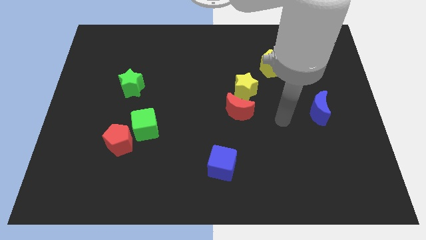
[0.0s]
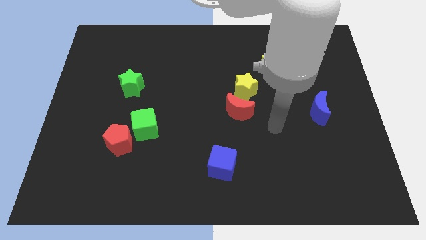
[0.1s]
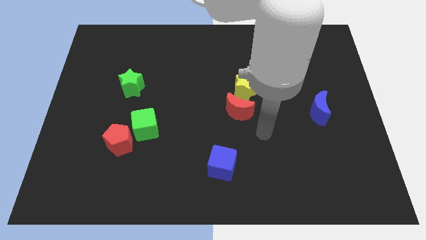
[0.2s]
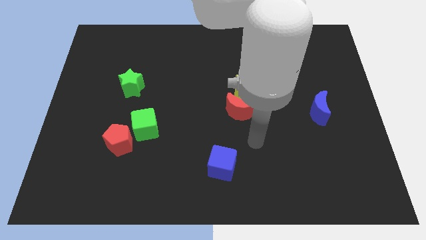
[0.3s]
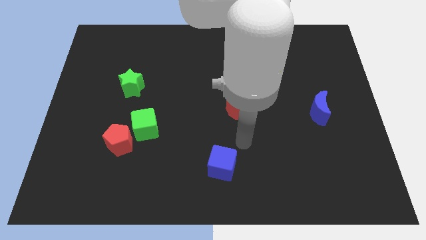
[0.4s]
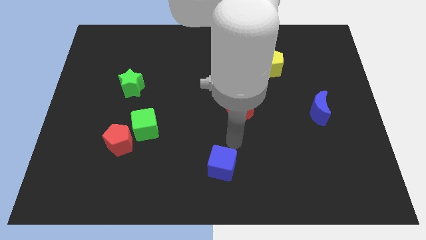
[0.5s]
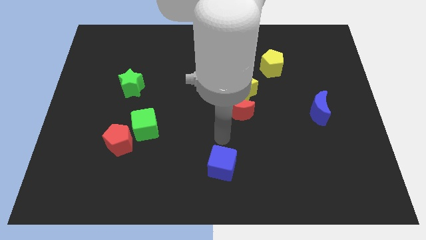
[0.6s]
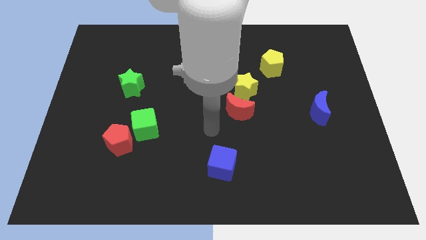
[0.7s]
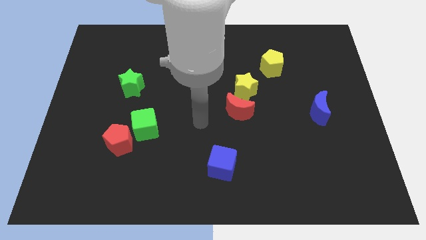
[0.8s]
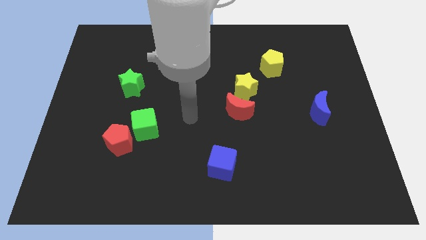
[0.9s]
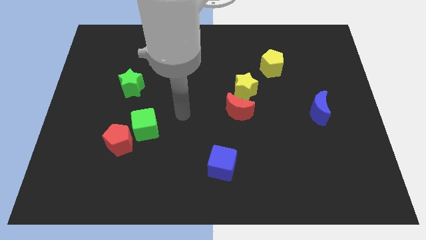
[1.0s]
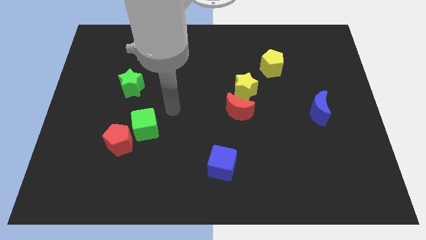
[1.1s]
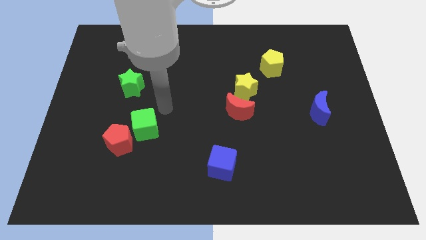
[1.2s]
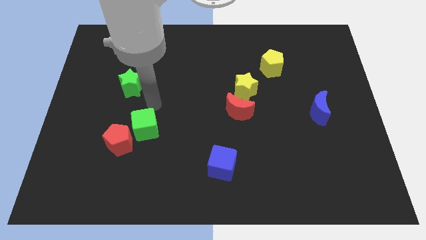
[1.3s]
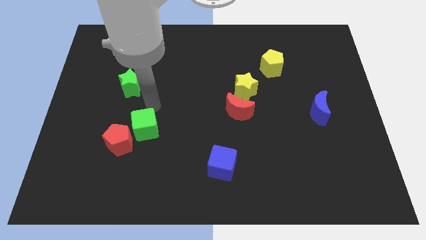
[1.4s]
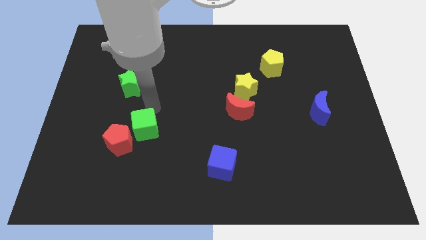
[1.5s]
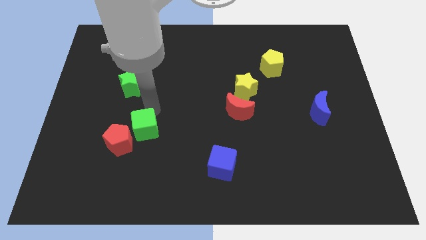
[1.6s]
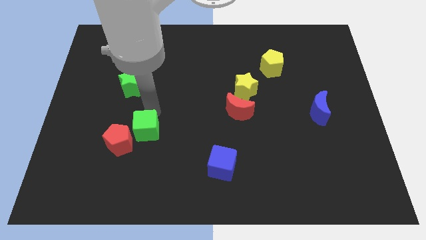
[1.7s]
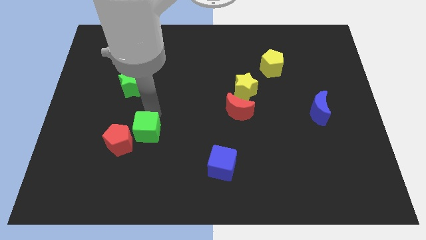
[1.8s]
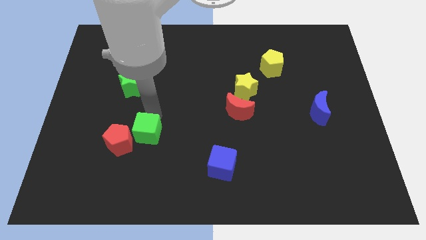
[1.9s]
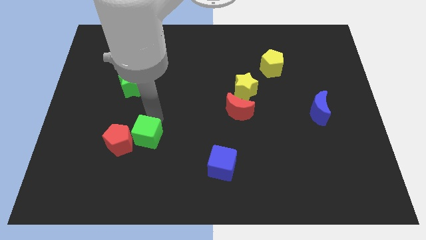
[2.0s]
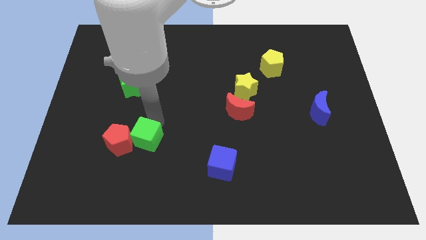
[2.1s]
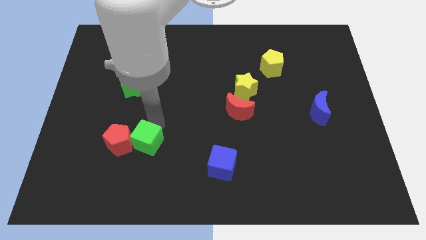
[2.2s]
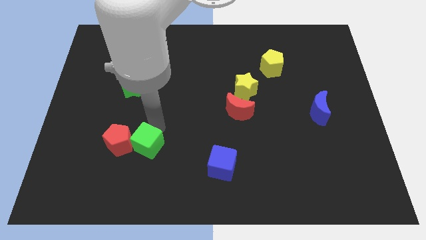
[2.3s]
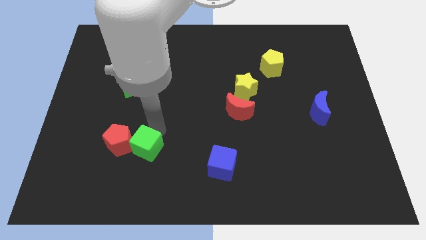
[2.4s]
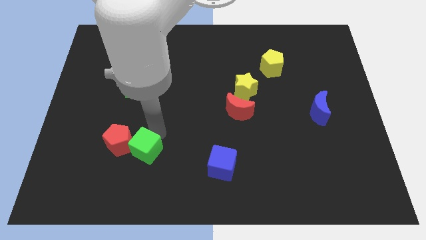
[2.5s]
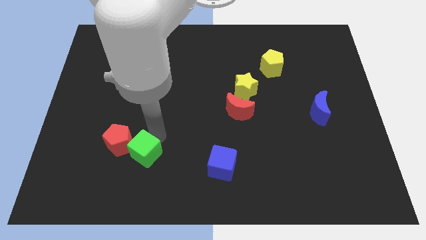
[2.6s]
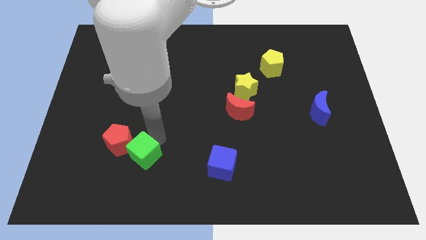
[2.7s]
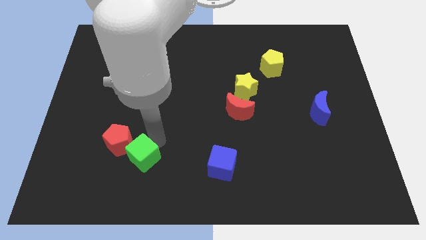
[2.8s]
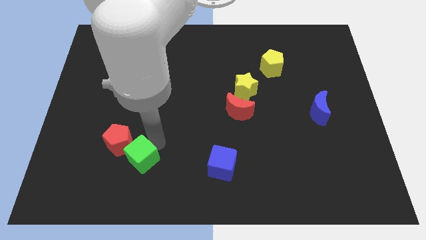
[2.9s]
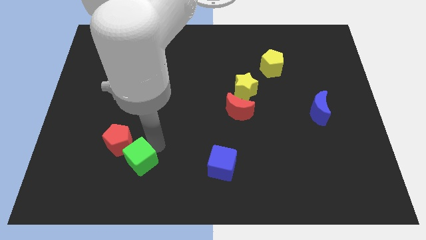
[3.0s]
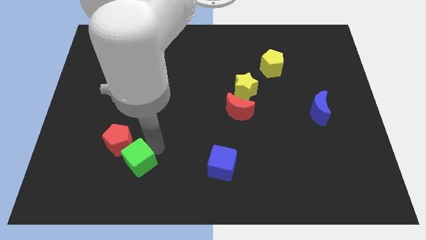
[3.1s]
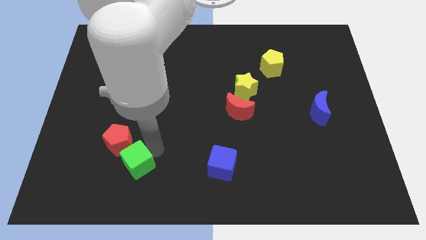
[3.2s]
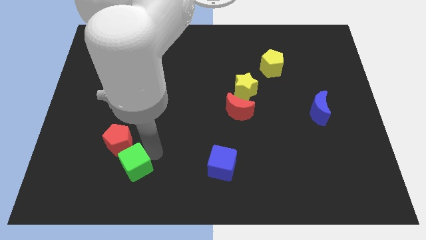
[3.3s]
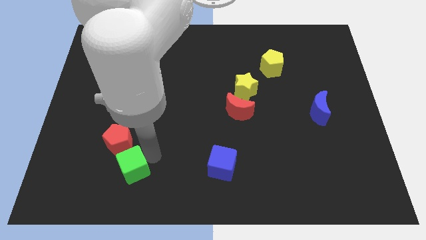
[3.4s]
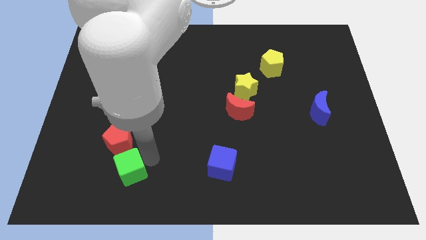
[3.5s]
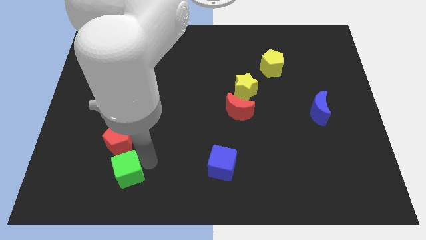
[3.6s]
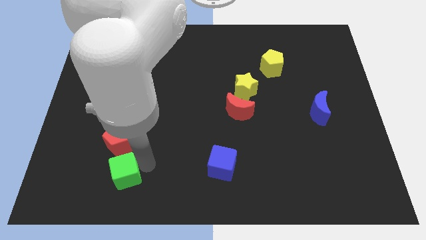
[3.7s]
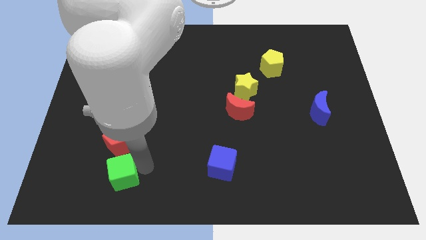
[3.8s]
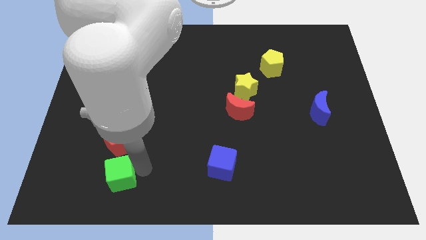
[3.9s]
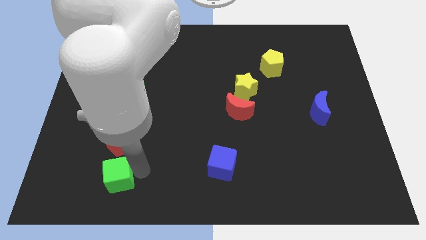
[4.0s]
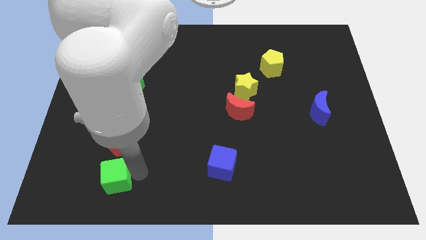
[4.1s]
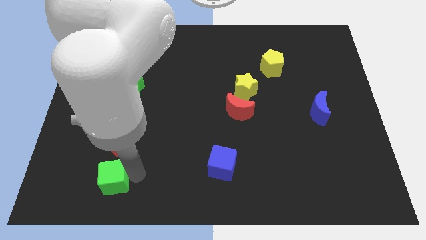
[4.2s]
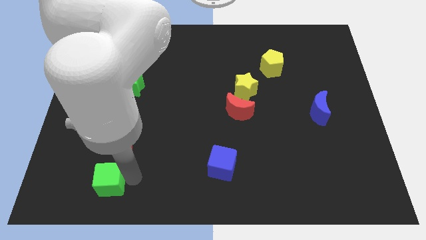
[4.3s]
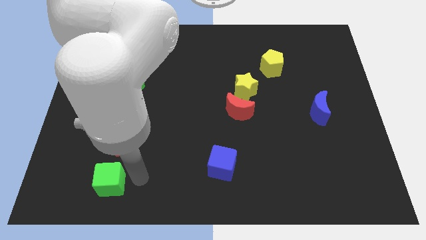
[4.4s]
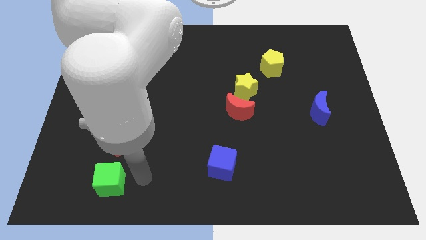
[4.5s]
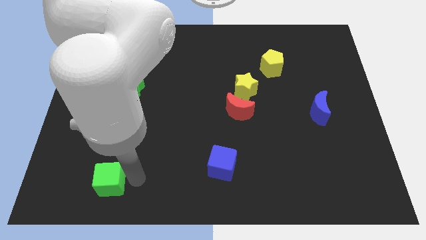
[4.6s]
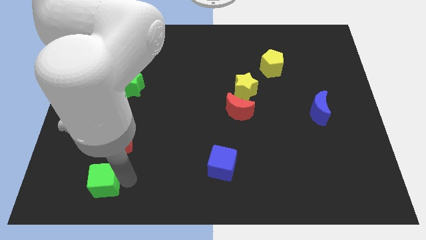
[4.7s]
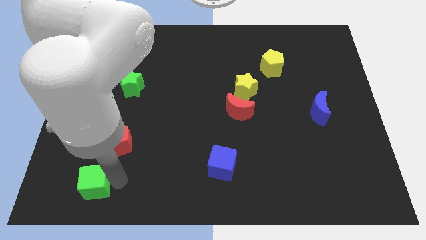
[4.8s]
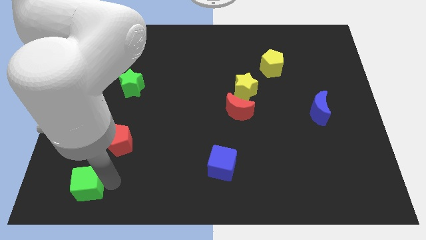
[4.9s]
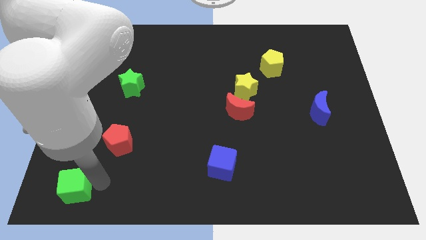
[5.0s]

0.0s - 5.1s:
move the green cube to the lower left corner

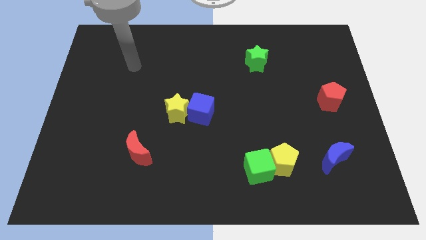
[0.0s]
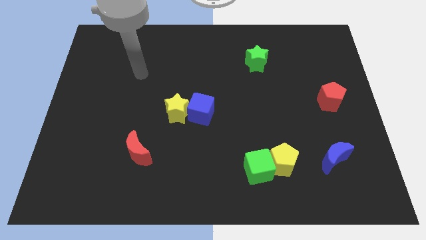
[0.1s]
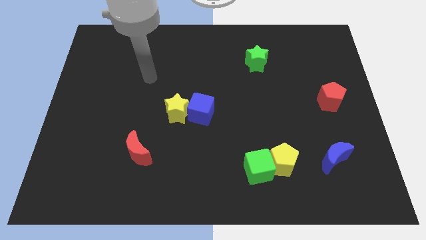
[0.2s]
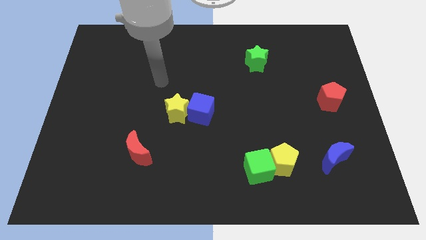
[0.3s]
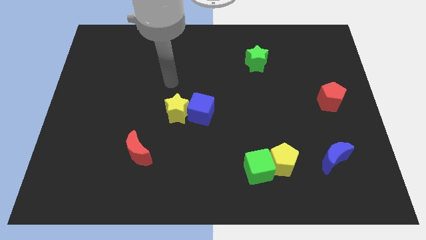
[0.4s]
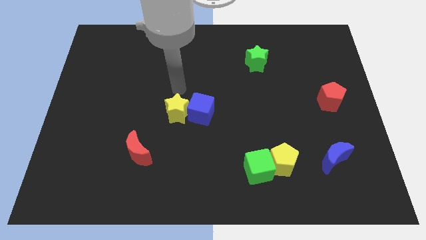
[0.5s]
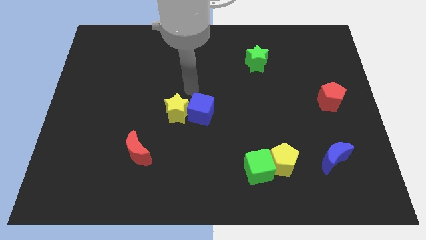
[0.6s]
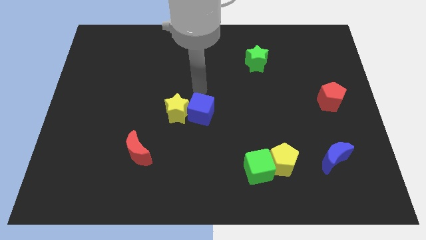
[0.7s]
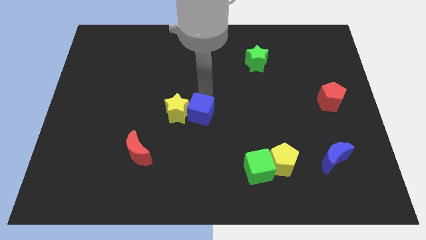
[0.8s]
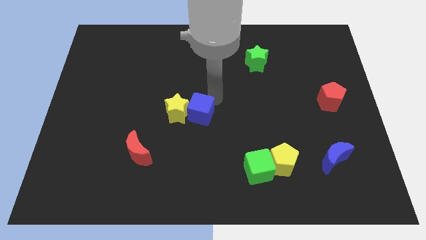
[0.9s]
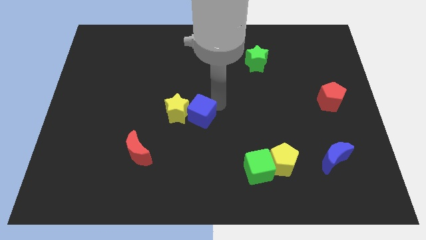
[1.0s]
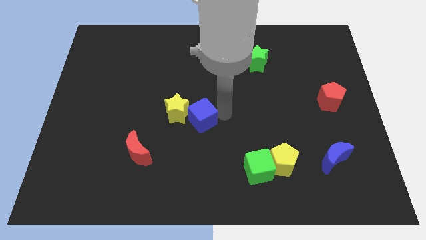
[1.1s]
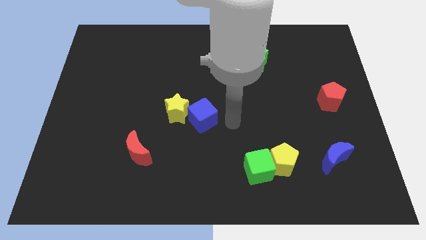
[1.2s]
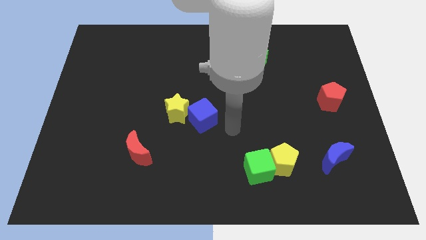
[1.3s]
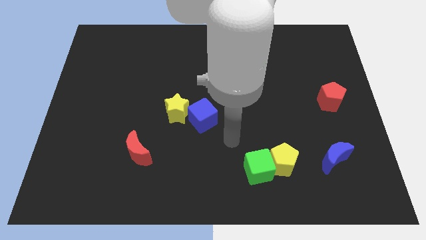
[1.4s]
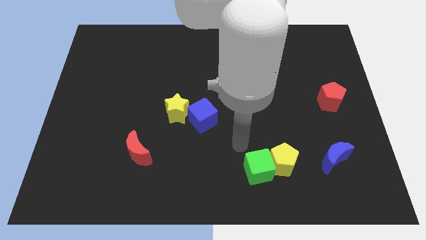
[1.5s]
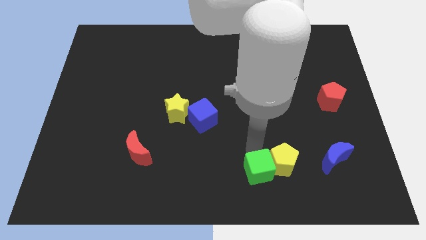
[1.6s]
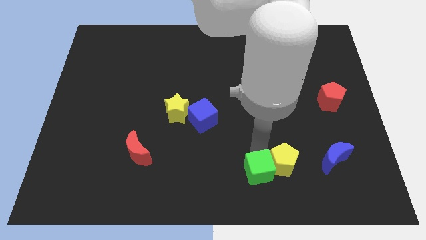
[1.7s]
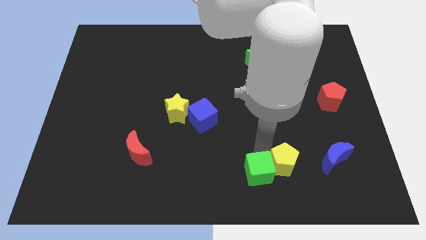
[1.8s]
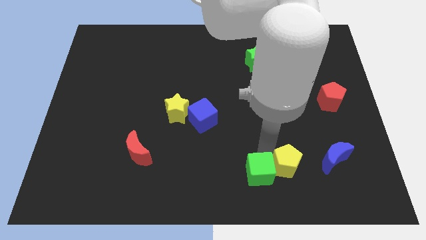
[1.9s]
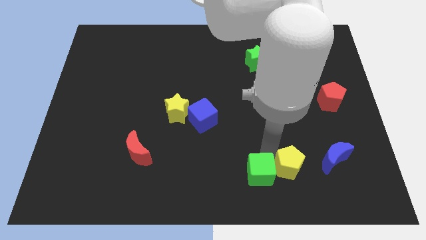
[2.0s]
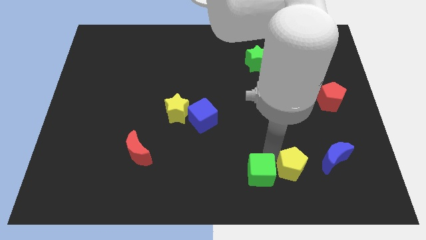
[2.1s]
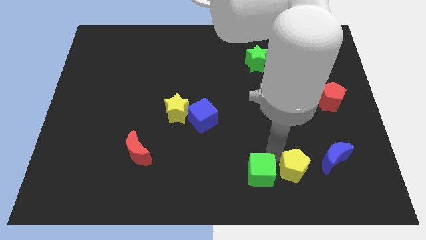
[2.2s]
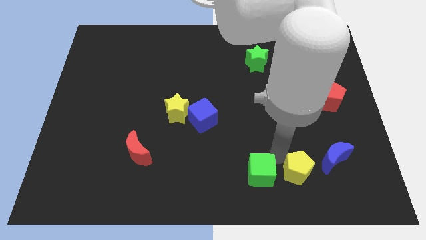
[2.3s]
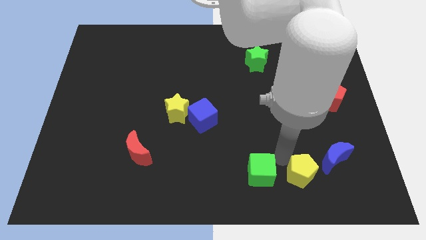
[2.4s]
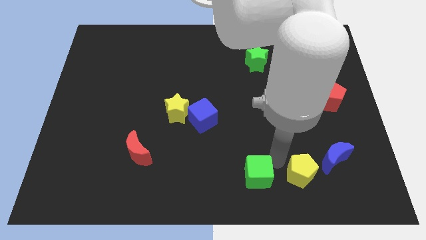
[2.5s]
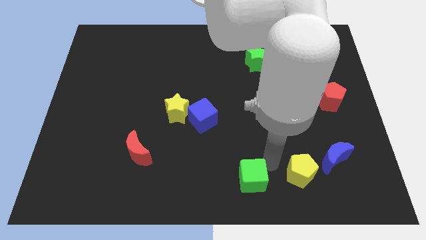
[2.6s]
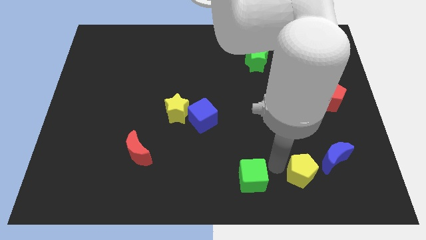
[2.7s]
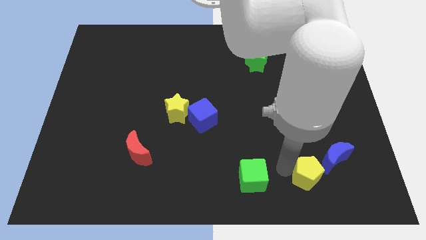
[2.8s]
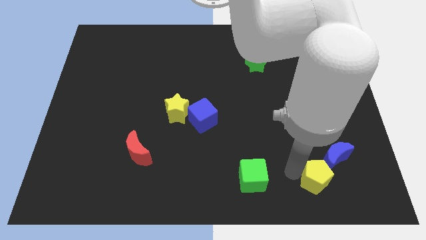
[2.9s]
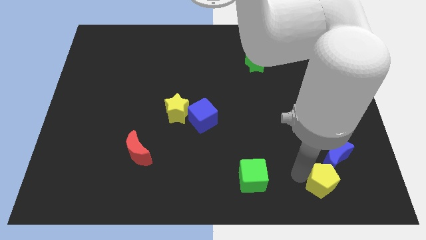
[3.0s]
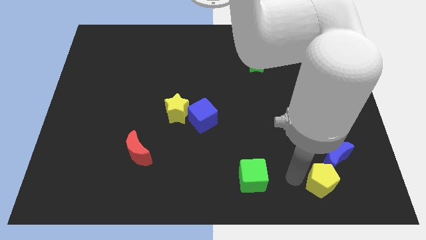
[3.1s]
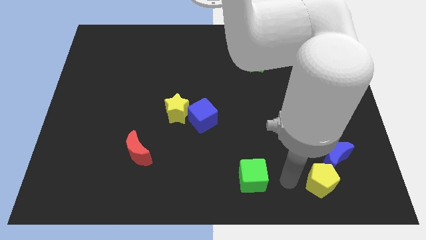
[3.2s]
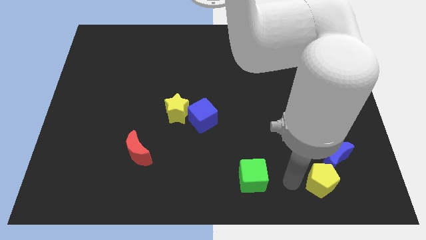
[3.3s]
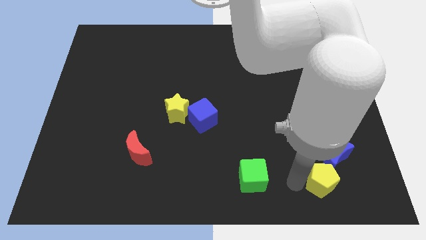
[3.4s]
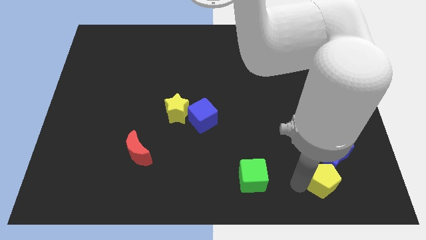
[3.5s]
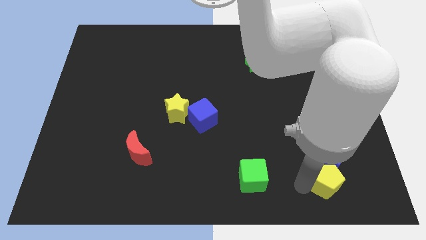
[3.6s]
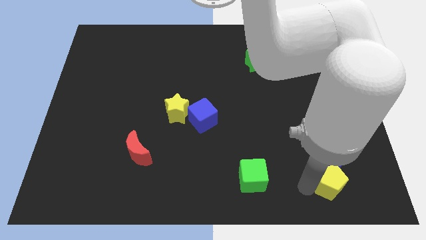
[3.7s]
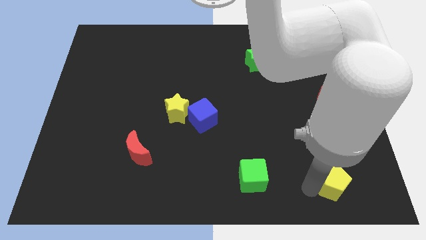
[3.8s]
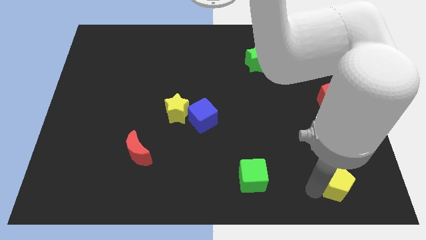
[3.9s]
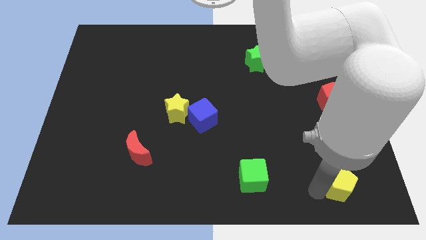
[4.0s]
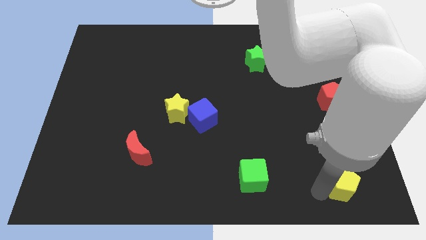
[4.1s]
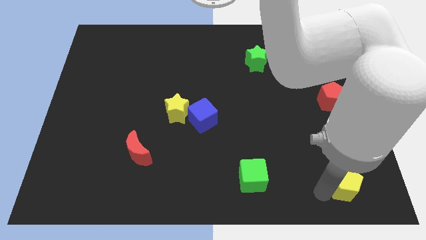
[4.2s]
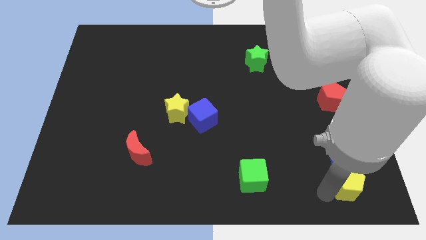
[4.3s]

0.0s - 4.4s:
put the yellow pentagon to the lower right corner
